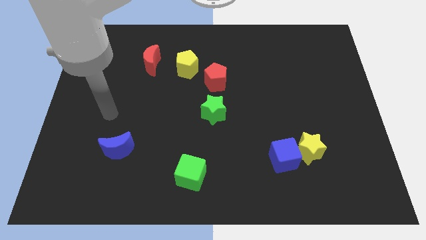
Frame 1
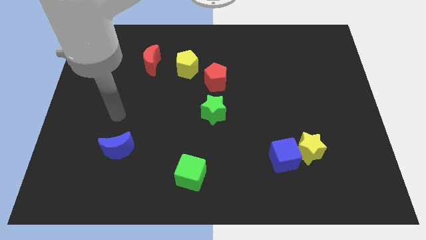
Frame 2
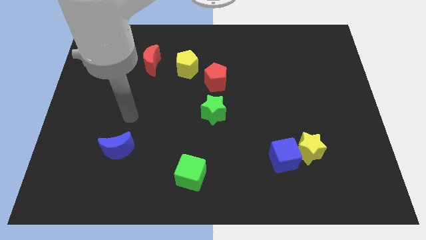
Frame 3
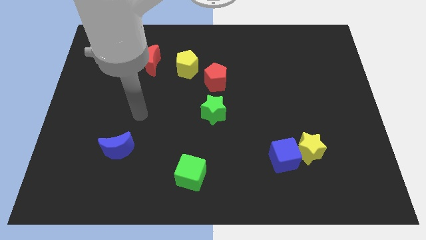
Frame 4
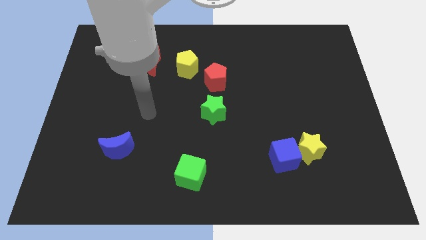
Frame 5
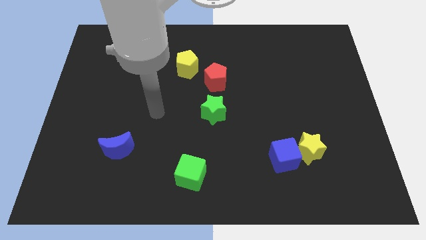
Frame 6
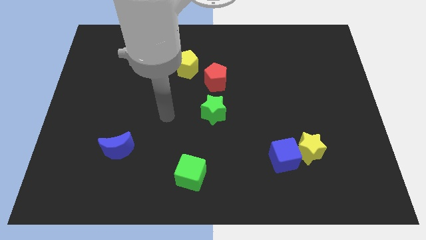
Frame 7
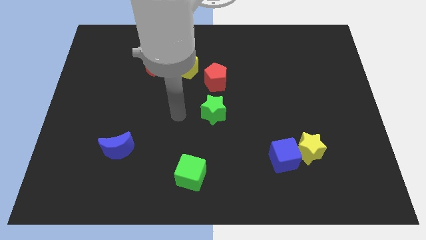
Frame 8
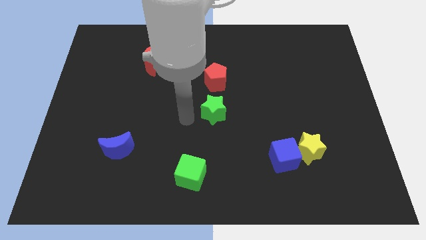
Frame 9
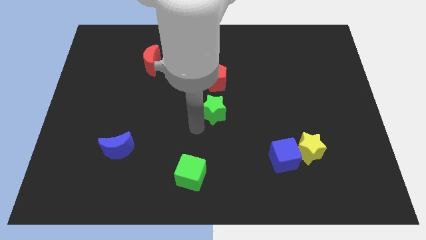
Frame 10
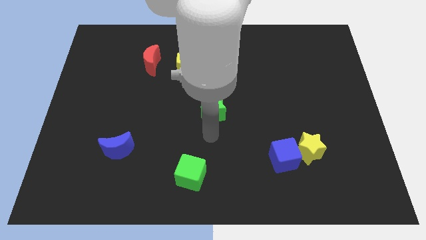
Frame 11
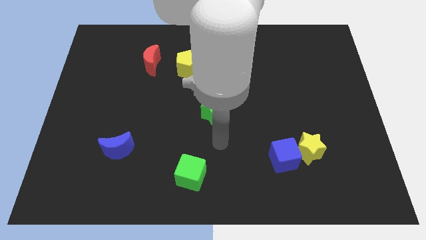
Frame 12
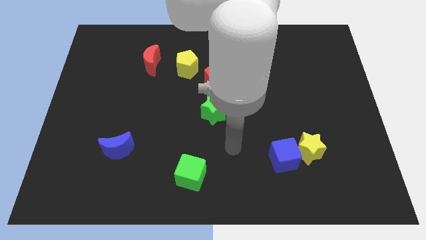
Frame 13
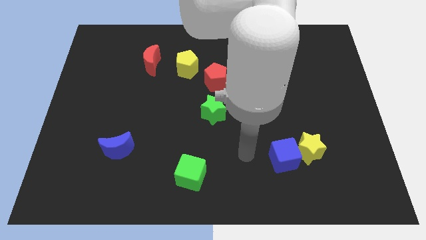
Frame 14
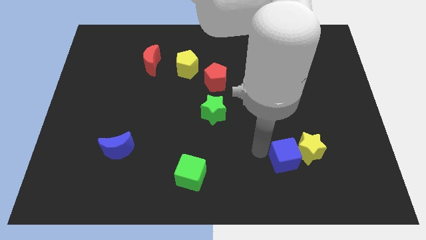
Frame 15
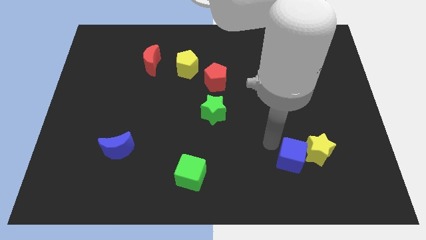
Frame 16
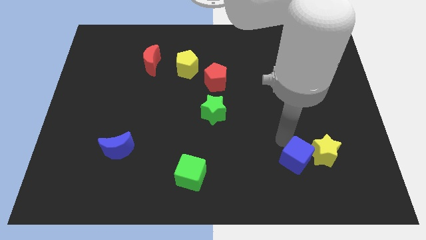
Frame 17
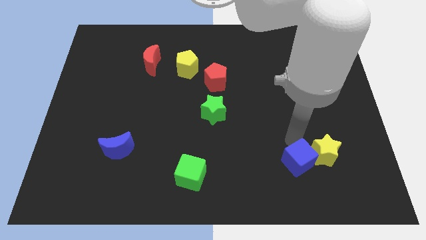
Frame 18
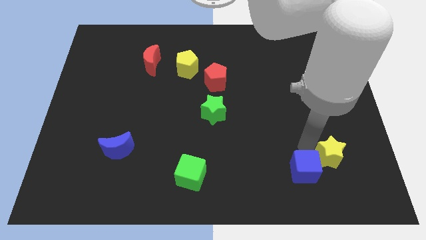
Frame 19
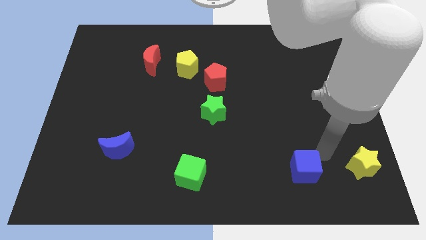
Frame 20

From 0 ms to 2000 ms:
separate the blue cube from the yellow star

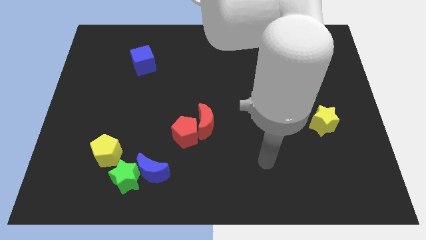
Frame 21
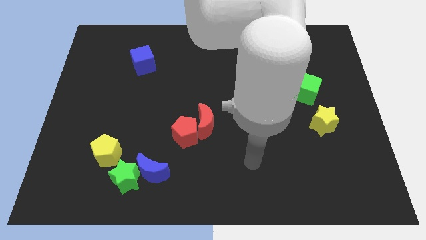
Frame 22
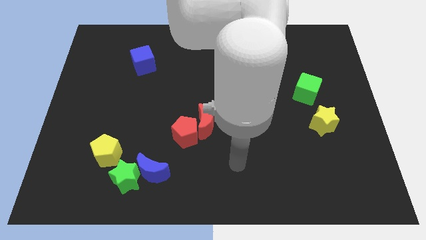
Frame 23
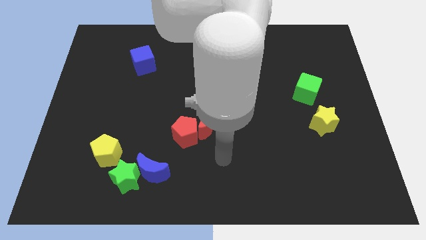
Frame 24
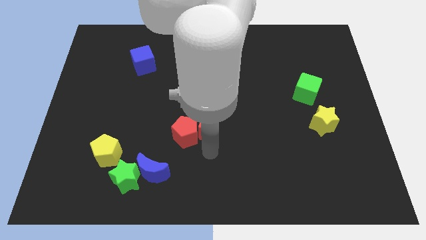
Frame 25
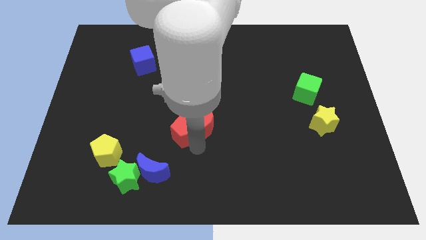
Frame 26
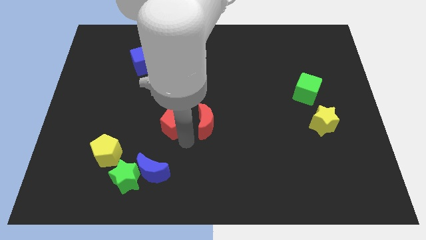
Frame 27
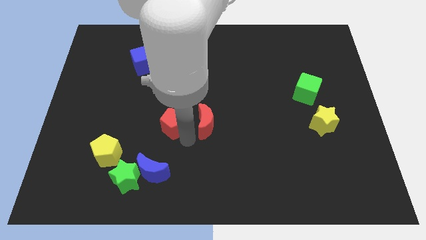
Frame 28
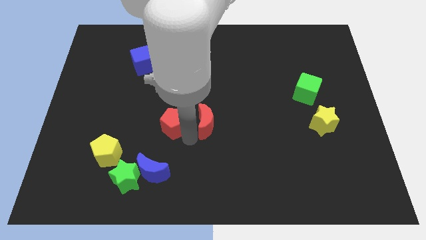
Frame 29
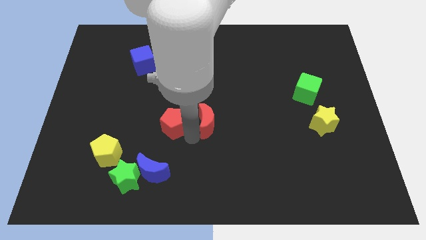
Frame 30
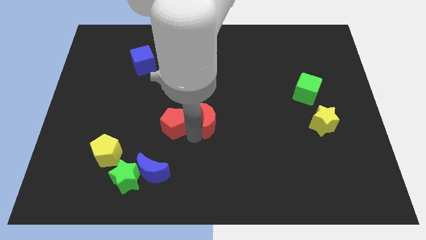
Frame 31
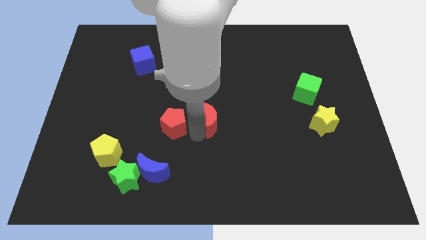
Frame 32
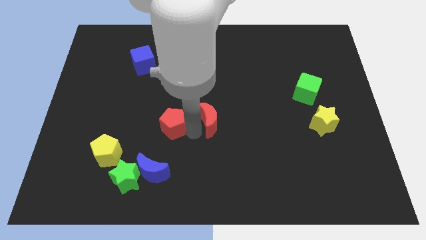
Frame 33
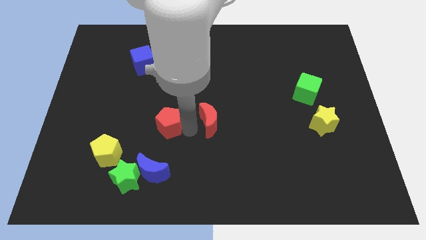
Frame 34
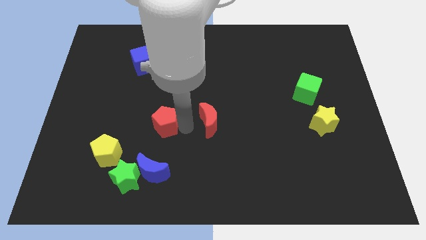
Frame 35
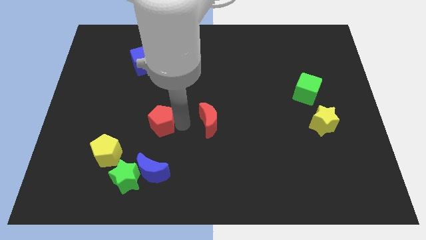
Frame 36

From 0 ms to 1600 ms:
move the red moon away from the red pentagon

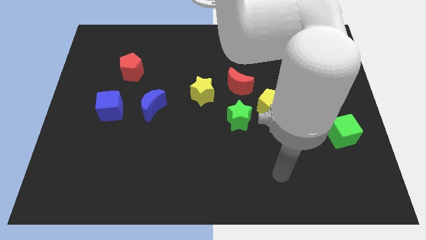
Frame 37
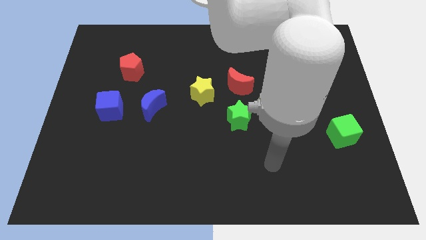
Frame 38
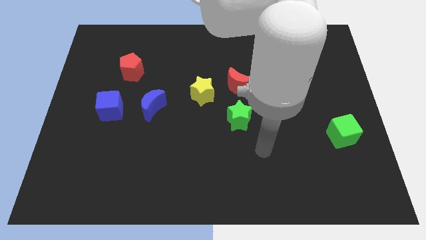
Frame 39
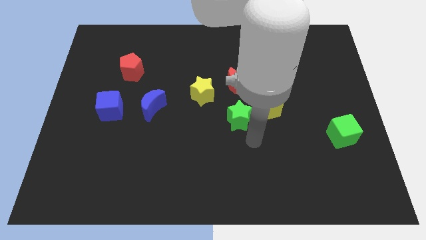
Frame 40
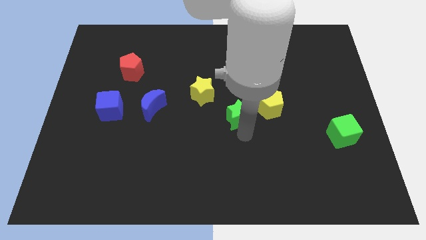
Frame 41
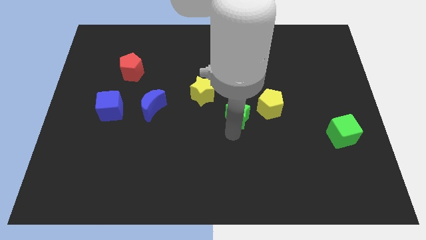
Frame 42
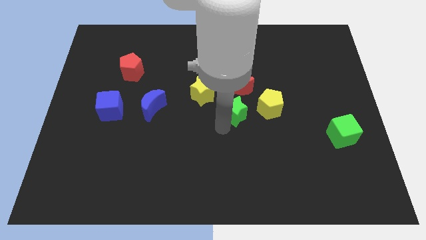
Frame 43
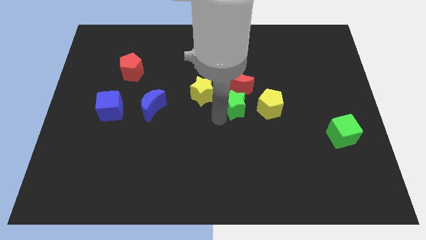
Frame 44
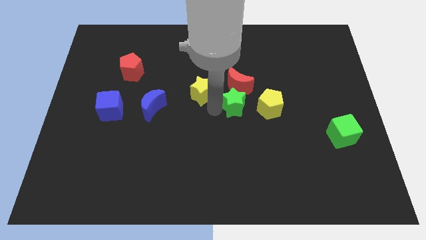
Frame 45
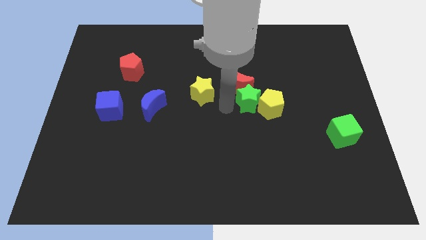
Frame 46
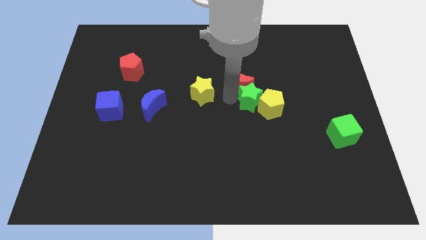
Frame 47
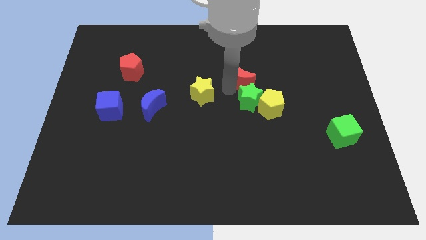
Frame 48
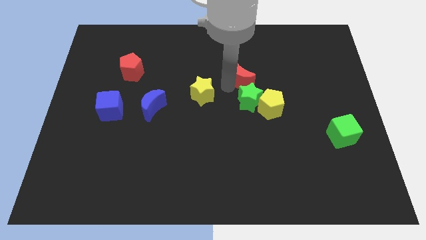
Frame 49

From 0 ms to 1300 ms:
move the yellow star away from the red moon

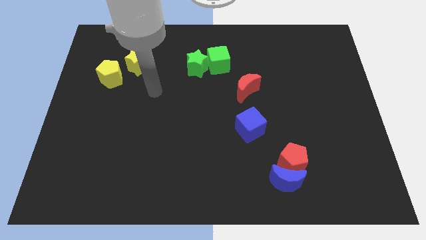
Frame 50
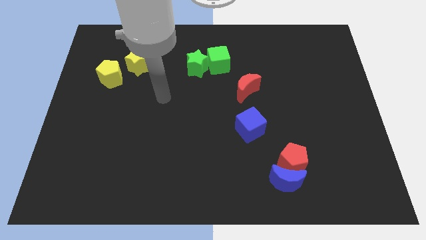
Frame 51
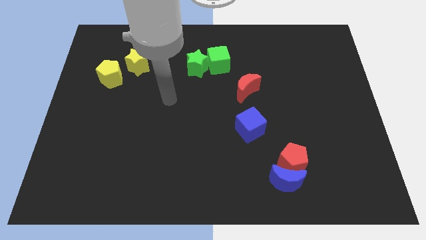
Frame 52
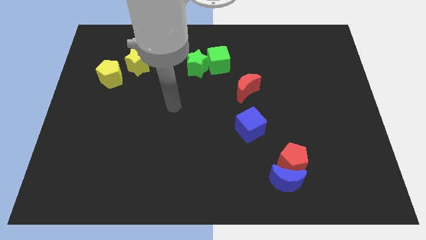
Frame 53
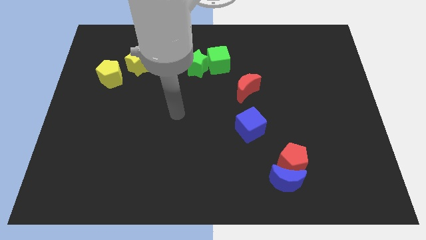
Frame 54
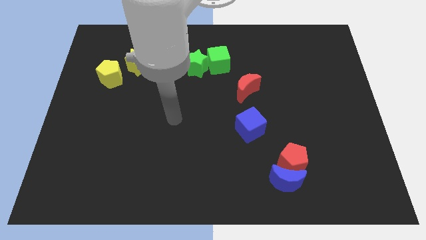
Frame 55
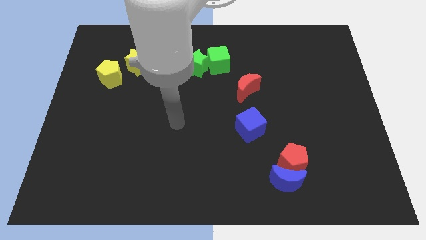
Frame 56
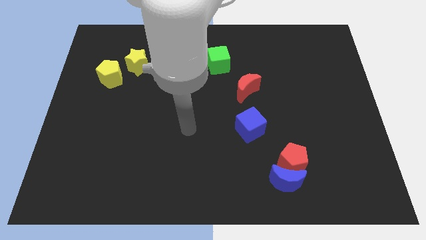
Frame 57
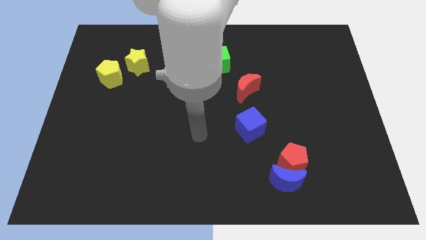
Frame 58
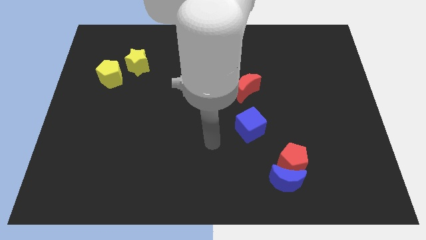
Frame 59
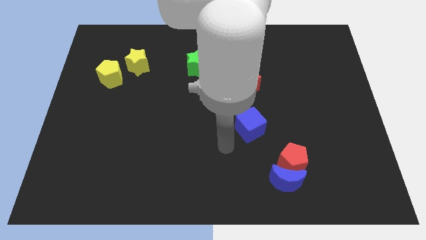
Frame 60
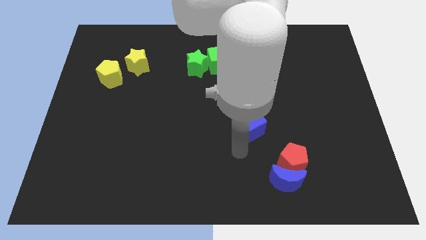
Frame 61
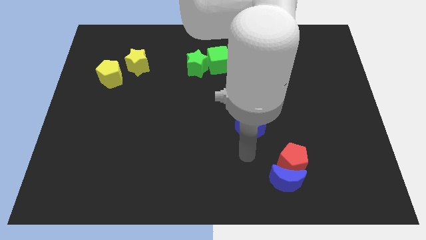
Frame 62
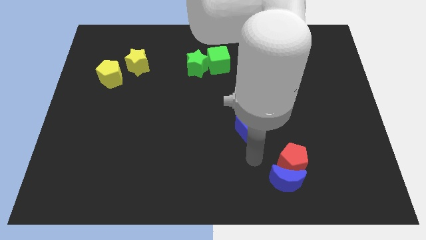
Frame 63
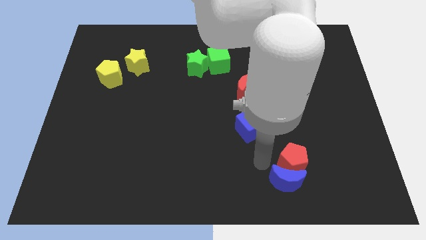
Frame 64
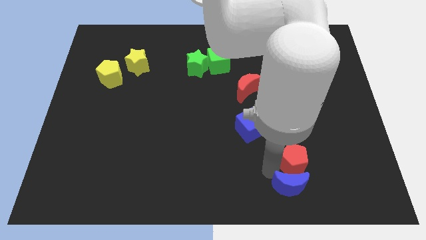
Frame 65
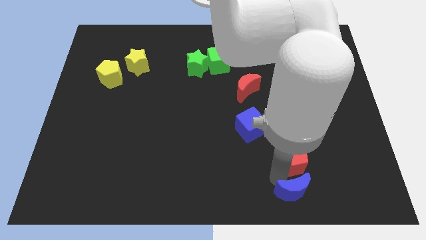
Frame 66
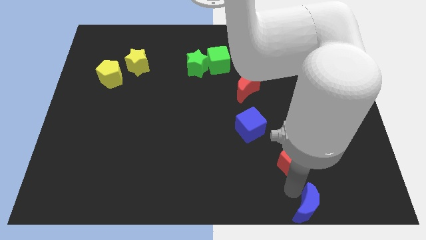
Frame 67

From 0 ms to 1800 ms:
separate the red pentagon from the blue moon

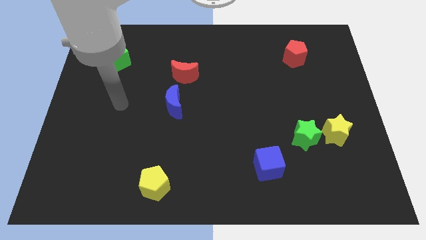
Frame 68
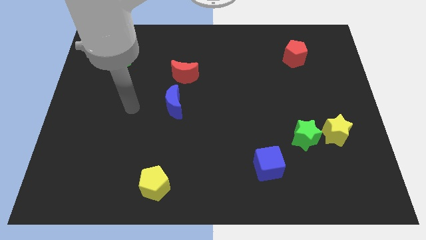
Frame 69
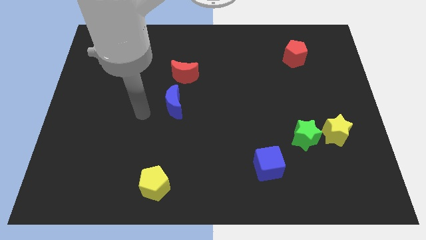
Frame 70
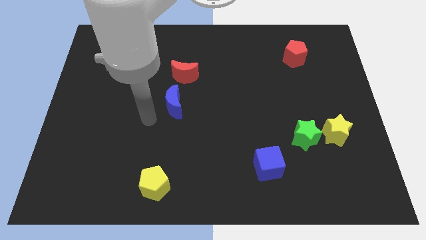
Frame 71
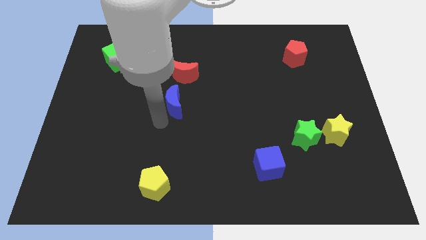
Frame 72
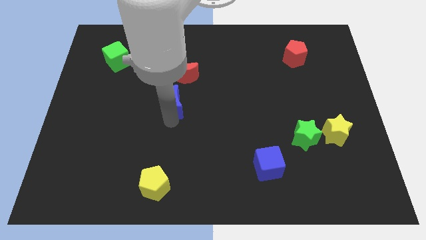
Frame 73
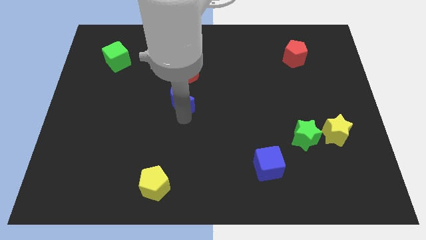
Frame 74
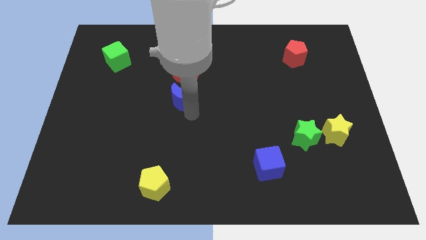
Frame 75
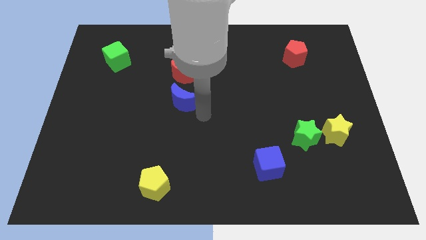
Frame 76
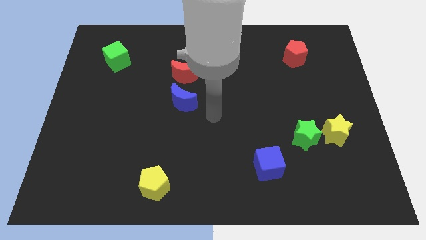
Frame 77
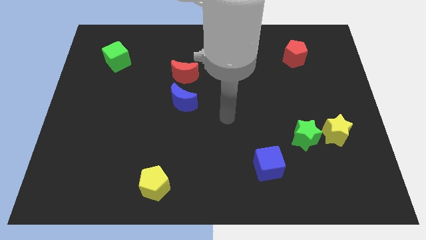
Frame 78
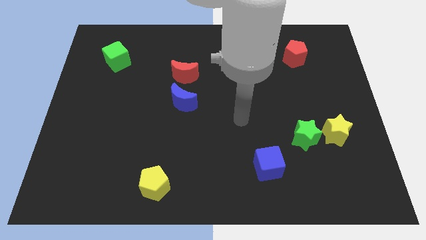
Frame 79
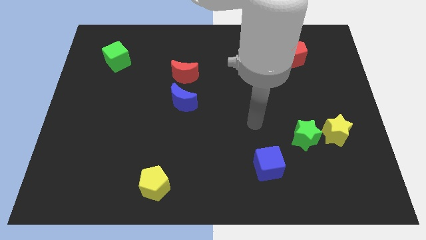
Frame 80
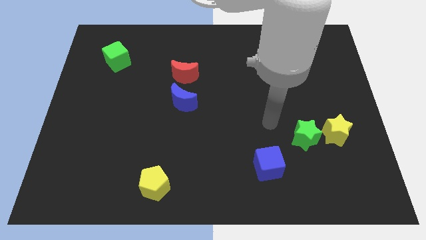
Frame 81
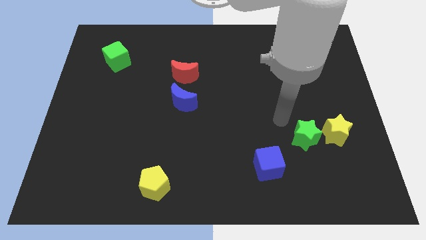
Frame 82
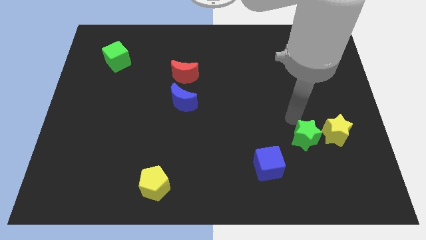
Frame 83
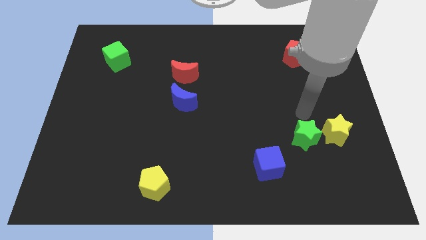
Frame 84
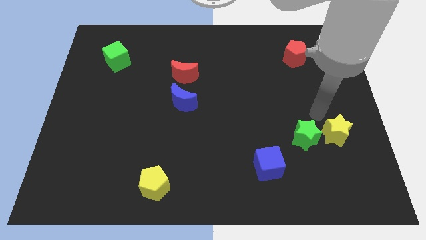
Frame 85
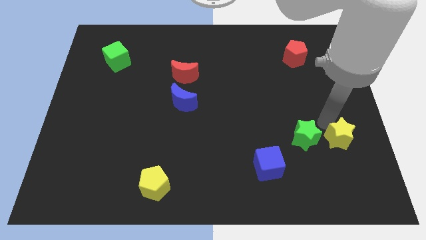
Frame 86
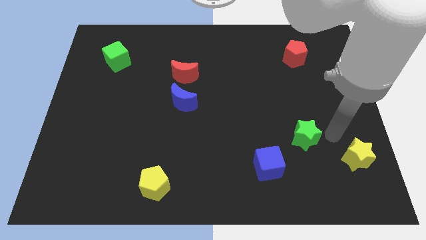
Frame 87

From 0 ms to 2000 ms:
pull the green star apart from the yellow star

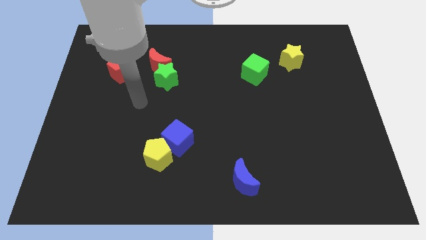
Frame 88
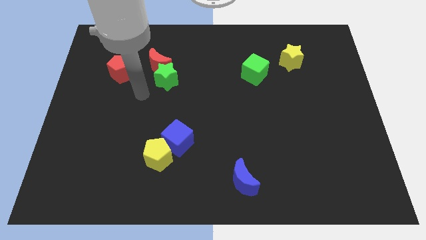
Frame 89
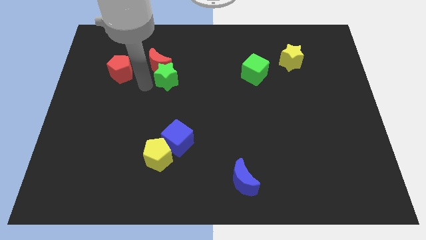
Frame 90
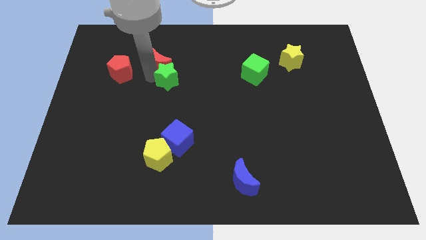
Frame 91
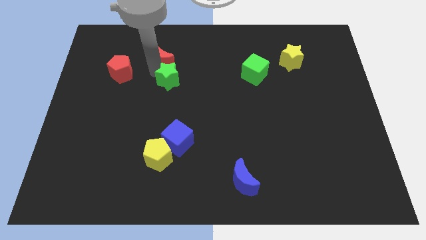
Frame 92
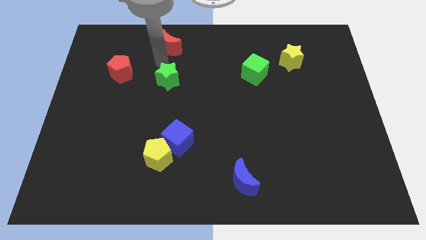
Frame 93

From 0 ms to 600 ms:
move the green star away from the red moon
